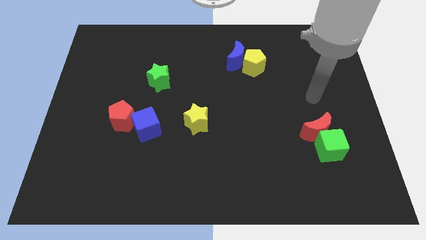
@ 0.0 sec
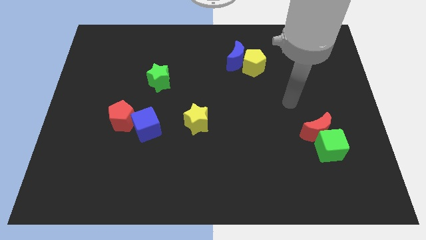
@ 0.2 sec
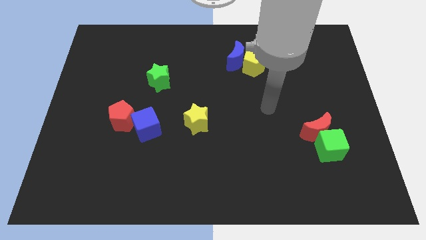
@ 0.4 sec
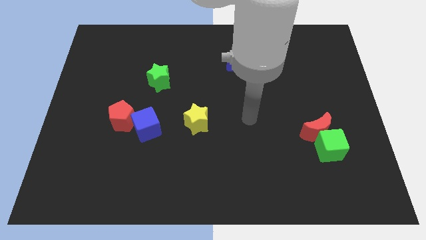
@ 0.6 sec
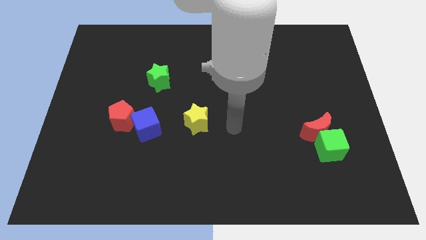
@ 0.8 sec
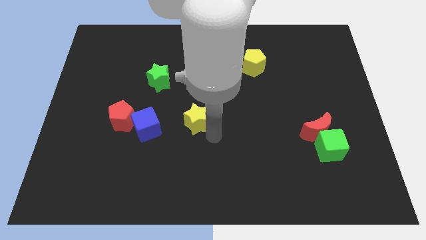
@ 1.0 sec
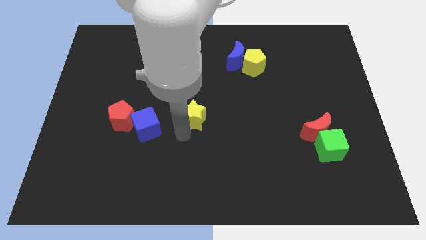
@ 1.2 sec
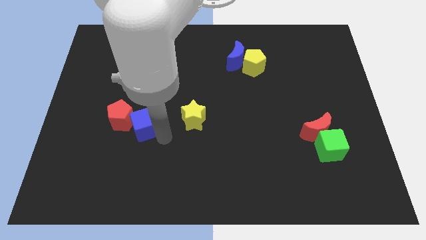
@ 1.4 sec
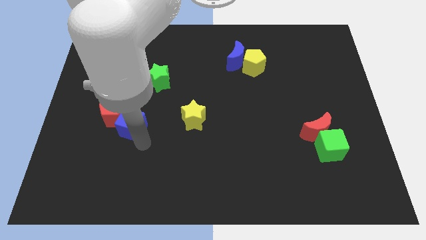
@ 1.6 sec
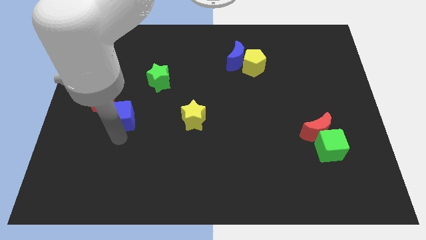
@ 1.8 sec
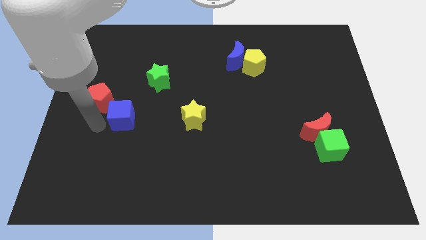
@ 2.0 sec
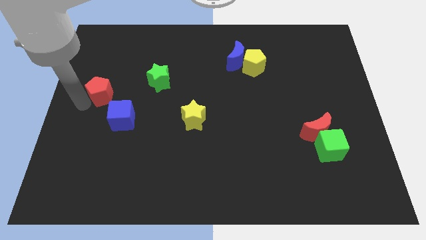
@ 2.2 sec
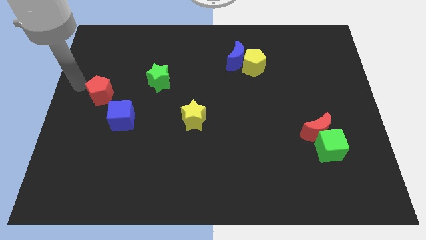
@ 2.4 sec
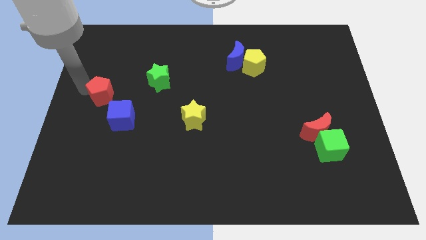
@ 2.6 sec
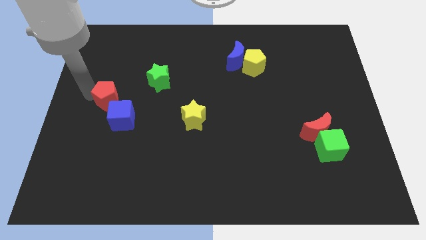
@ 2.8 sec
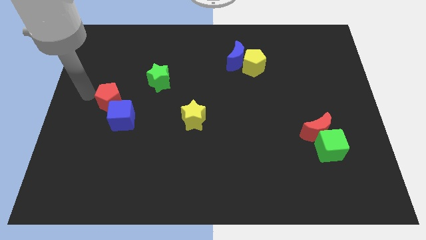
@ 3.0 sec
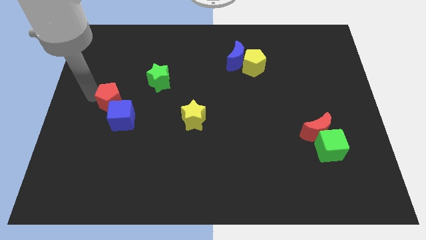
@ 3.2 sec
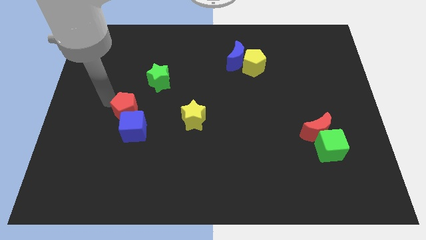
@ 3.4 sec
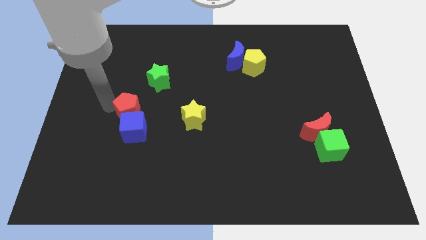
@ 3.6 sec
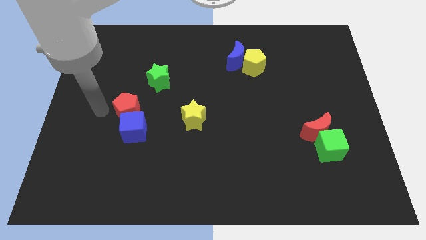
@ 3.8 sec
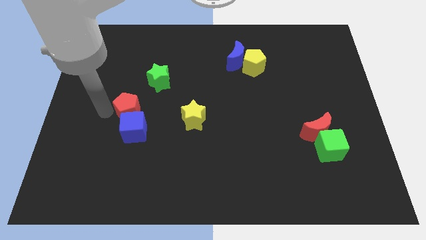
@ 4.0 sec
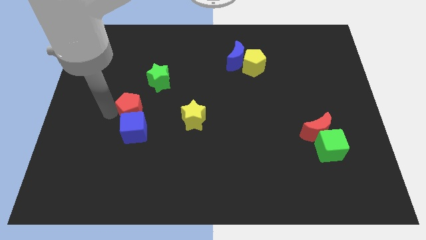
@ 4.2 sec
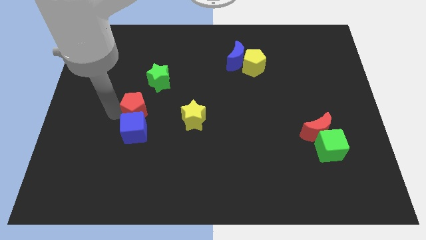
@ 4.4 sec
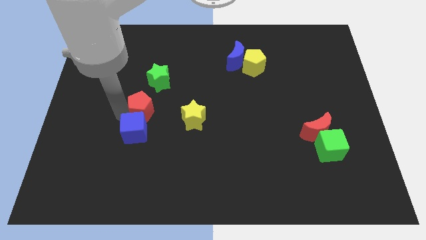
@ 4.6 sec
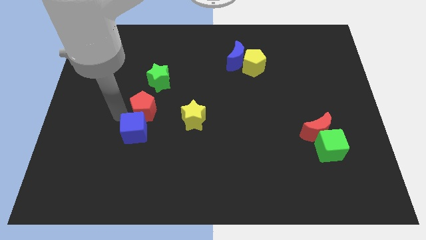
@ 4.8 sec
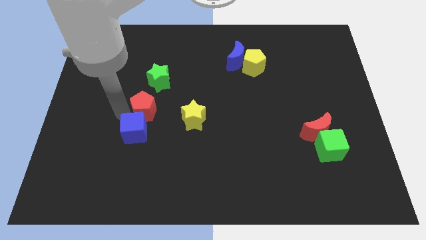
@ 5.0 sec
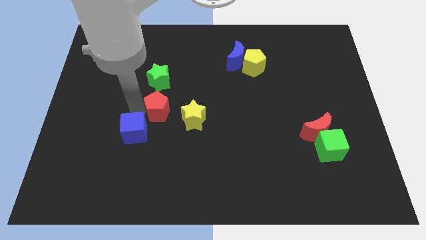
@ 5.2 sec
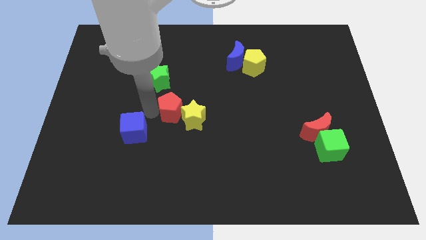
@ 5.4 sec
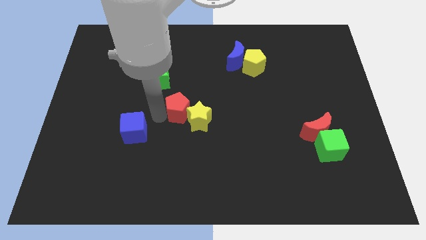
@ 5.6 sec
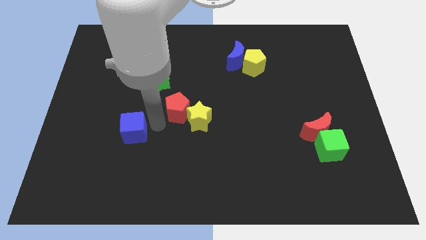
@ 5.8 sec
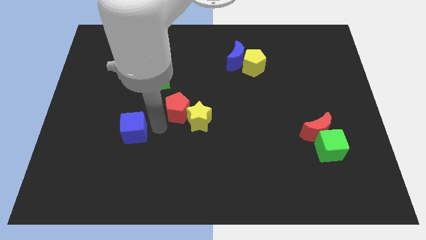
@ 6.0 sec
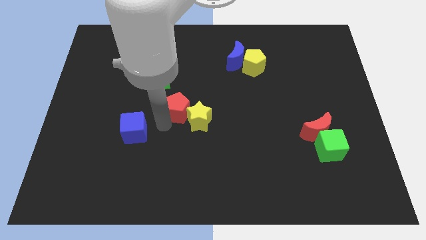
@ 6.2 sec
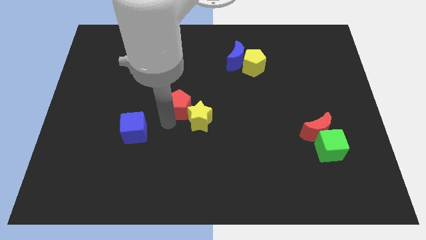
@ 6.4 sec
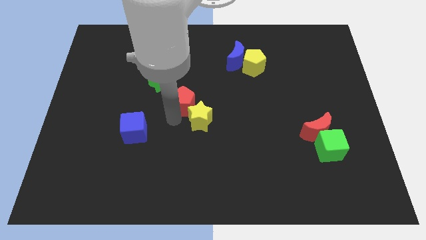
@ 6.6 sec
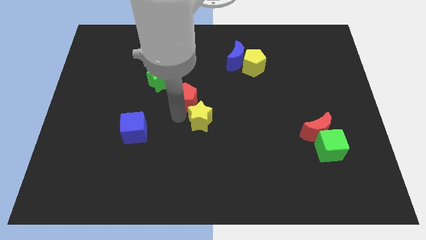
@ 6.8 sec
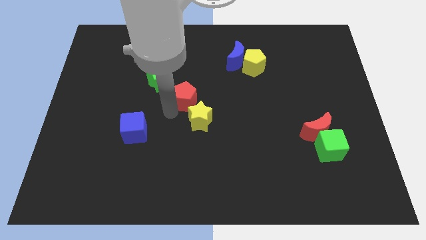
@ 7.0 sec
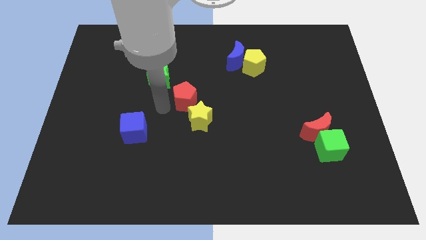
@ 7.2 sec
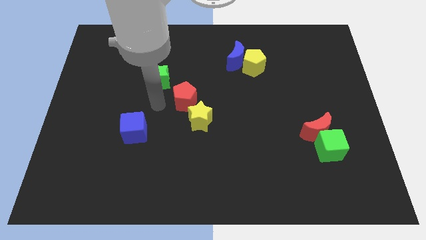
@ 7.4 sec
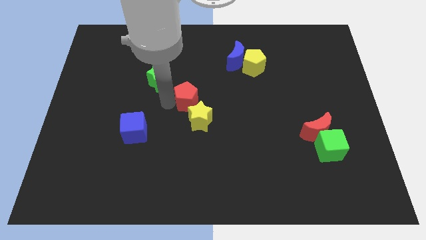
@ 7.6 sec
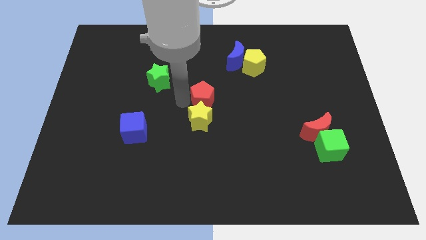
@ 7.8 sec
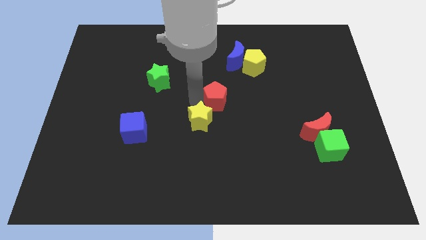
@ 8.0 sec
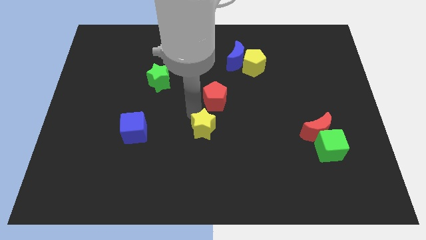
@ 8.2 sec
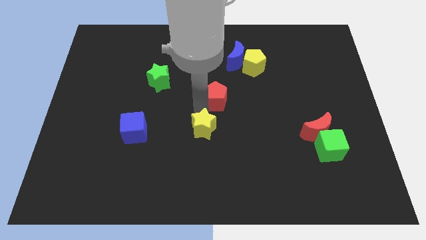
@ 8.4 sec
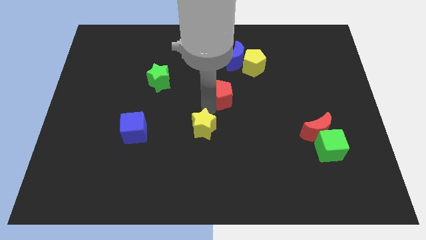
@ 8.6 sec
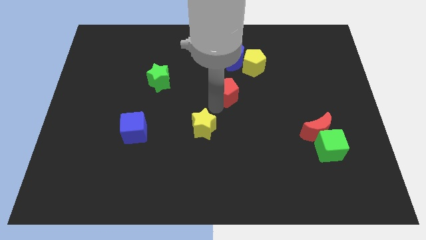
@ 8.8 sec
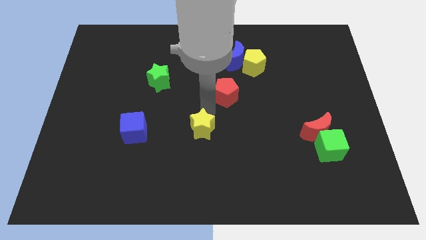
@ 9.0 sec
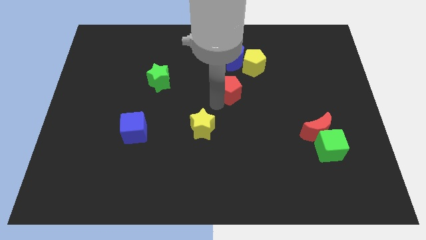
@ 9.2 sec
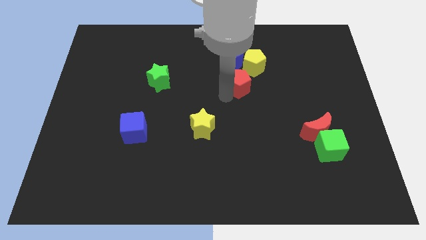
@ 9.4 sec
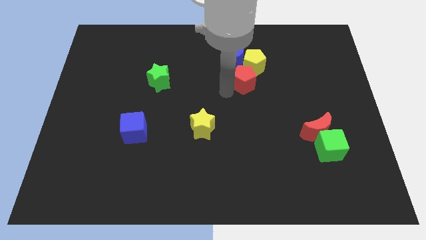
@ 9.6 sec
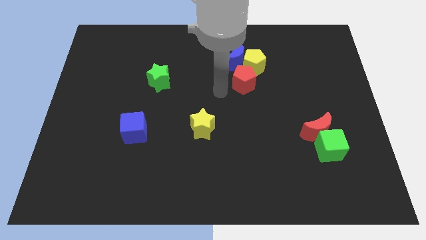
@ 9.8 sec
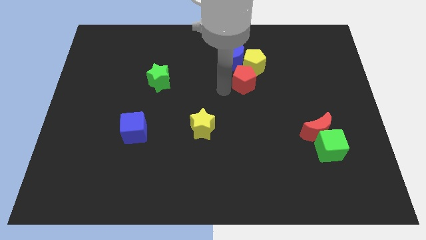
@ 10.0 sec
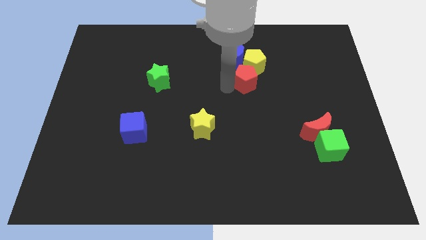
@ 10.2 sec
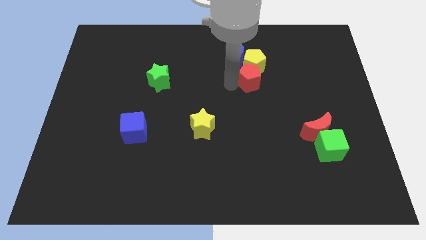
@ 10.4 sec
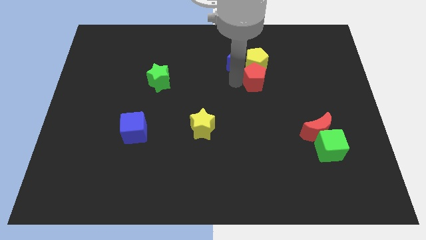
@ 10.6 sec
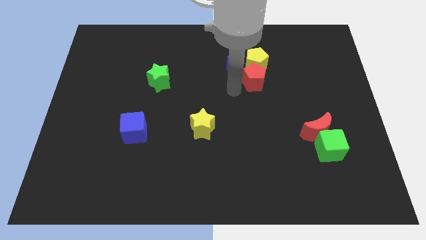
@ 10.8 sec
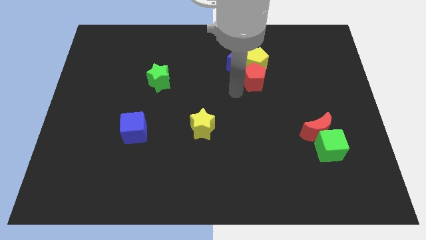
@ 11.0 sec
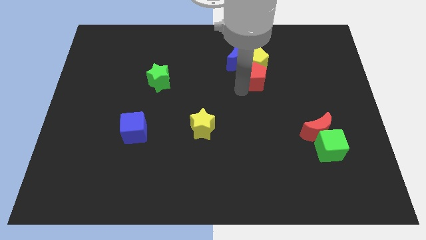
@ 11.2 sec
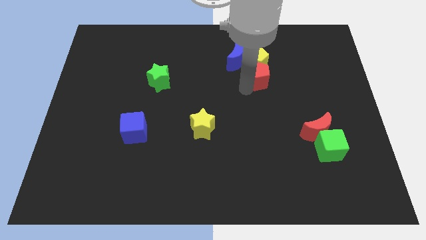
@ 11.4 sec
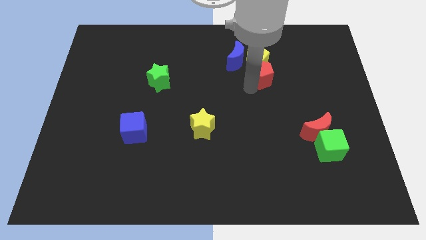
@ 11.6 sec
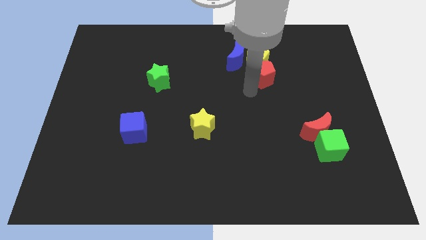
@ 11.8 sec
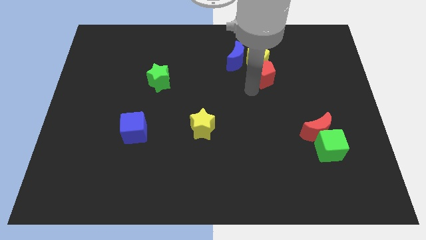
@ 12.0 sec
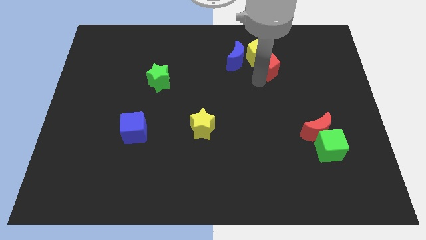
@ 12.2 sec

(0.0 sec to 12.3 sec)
push the red pentagon right of the blue moon

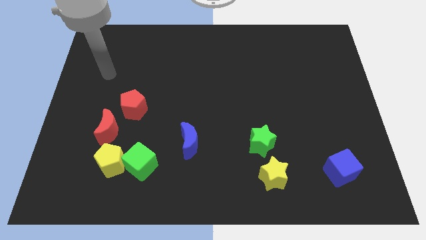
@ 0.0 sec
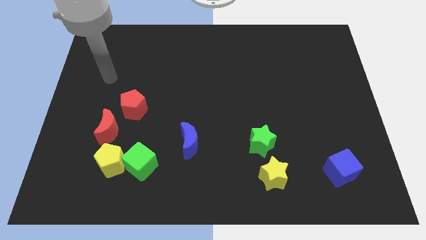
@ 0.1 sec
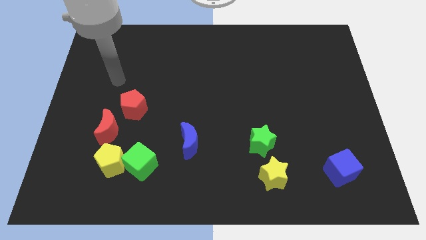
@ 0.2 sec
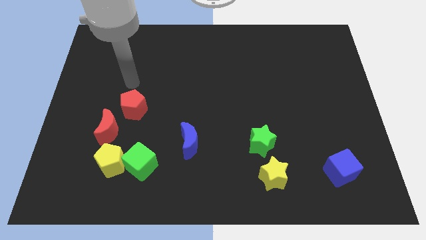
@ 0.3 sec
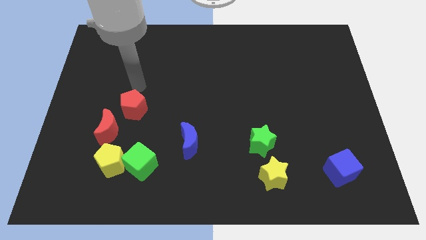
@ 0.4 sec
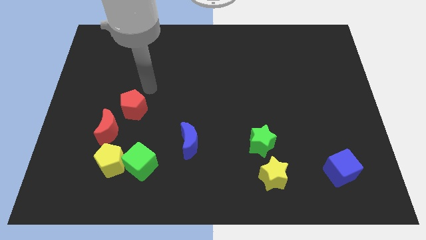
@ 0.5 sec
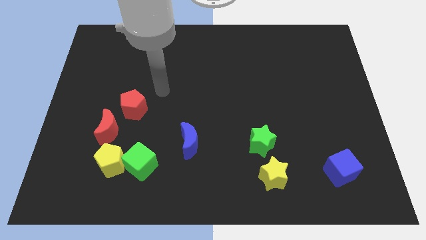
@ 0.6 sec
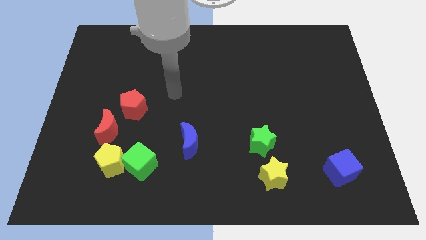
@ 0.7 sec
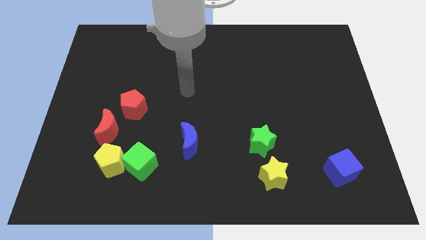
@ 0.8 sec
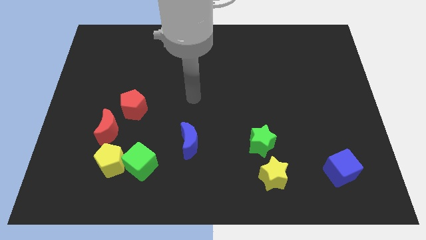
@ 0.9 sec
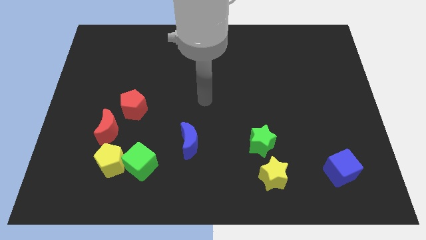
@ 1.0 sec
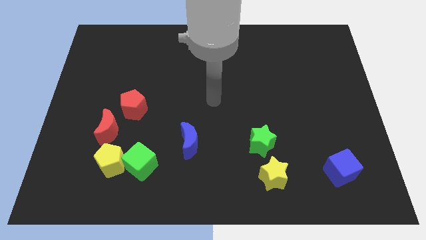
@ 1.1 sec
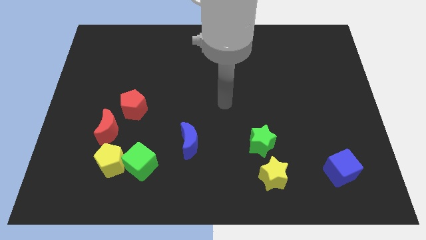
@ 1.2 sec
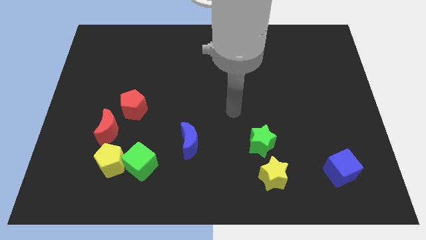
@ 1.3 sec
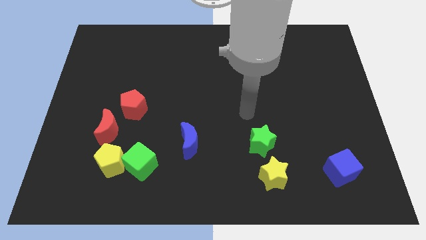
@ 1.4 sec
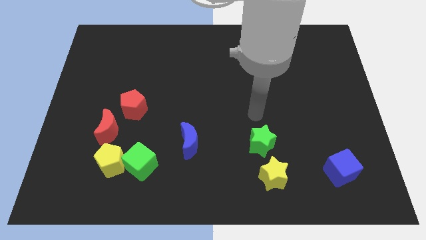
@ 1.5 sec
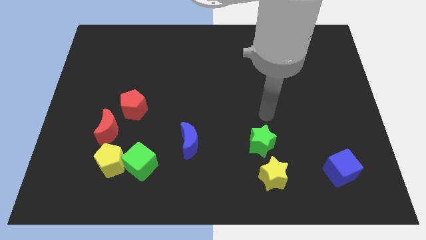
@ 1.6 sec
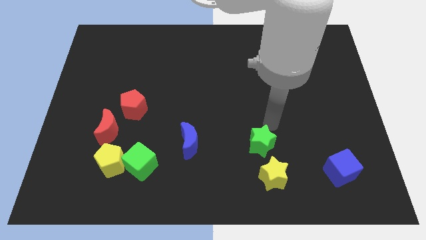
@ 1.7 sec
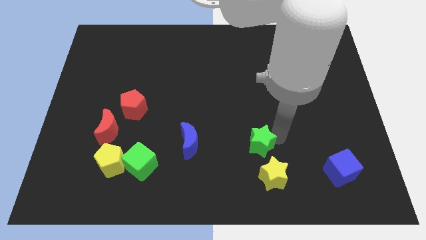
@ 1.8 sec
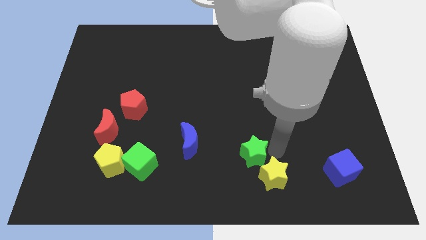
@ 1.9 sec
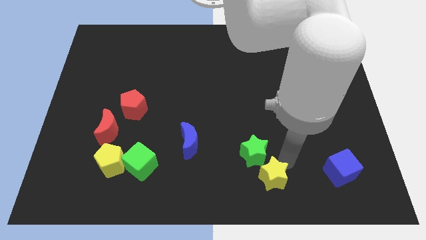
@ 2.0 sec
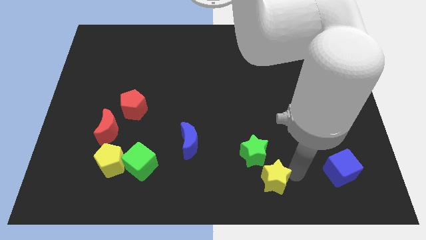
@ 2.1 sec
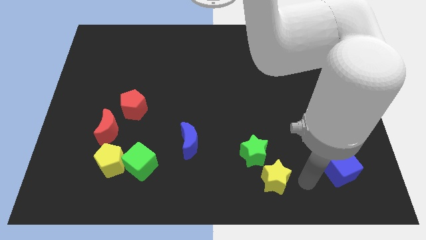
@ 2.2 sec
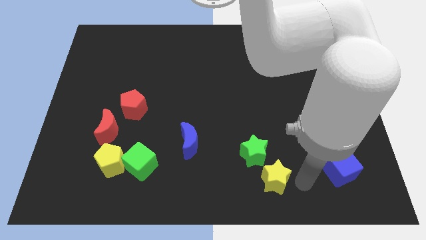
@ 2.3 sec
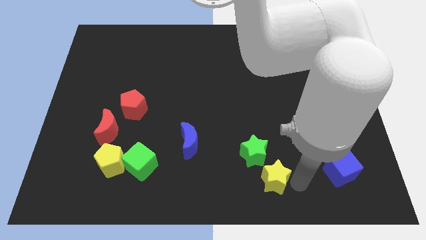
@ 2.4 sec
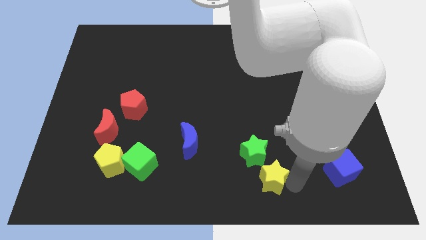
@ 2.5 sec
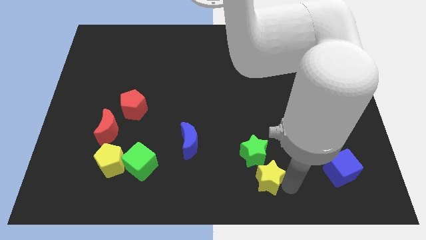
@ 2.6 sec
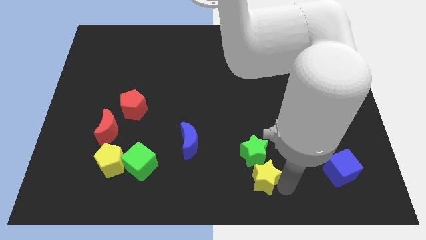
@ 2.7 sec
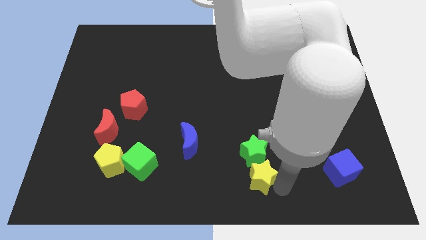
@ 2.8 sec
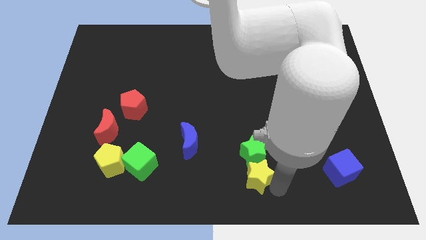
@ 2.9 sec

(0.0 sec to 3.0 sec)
push the yellow star to the bottom left side of the green star
